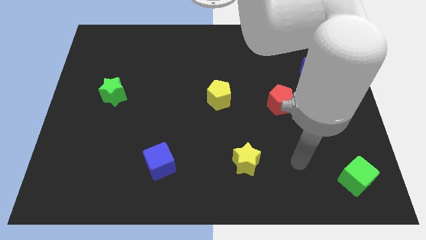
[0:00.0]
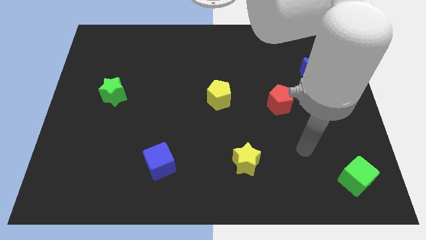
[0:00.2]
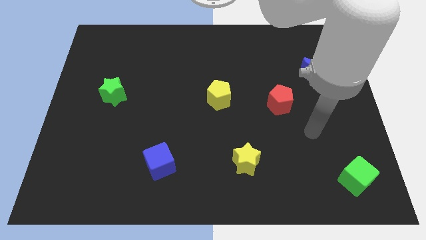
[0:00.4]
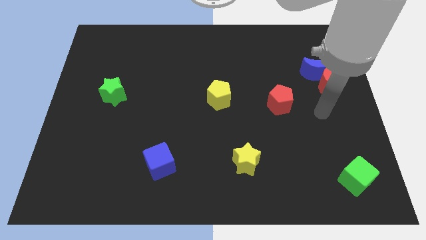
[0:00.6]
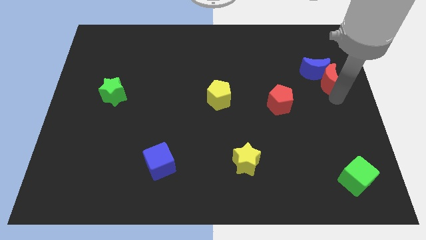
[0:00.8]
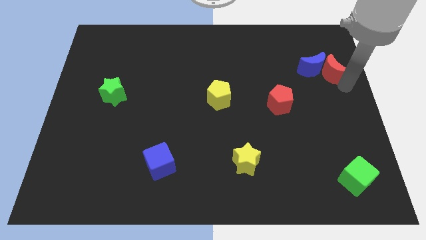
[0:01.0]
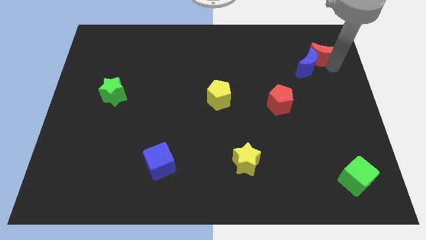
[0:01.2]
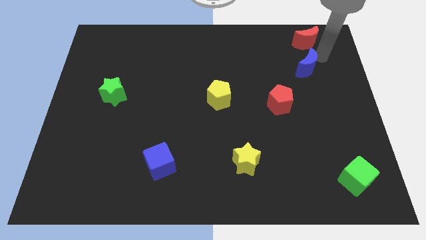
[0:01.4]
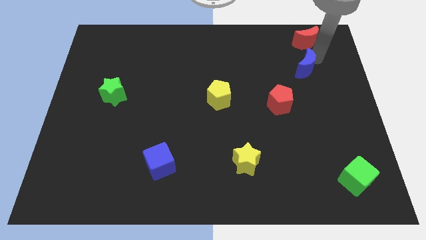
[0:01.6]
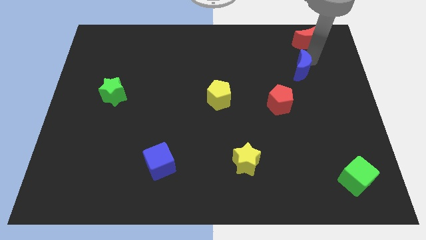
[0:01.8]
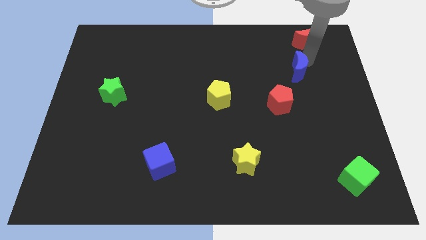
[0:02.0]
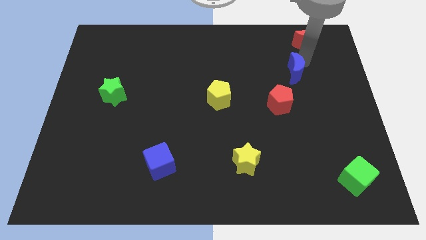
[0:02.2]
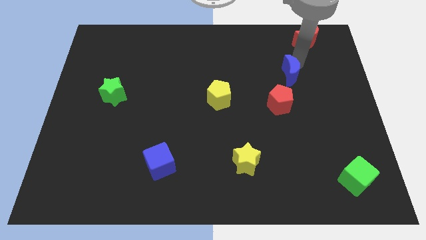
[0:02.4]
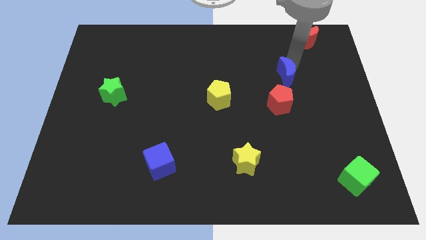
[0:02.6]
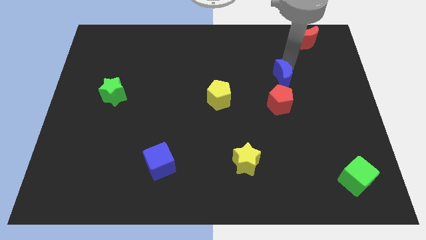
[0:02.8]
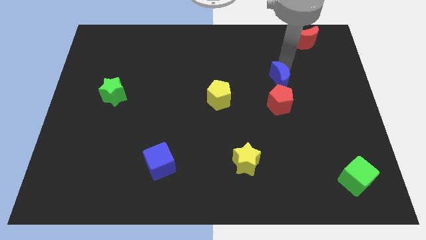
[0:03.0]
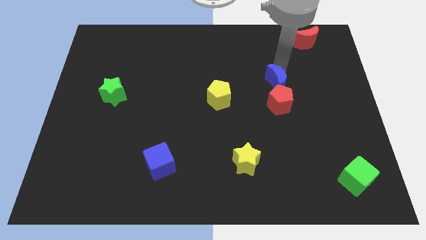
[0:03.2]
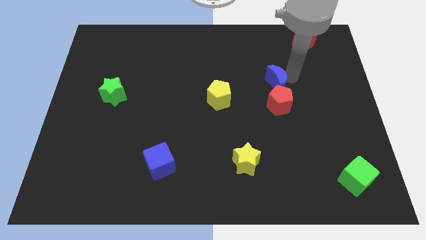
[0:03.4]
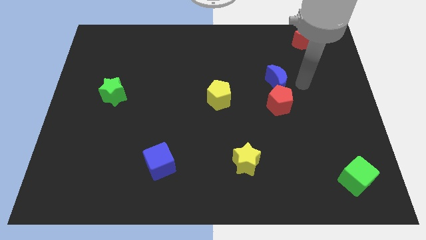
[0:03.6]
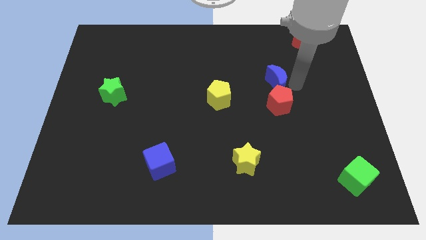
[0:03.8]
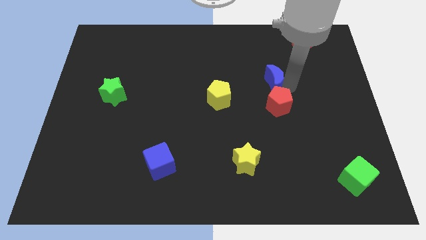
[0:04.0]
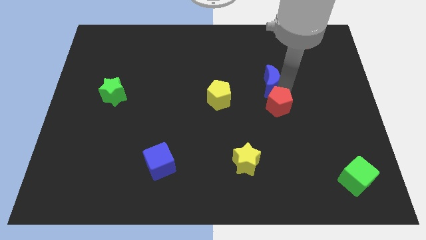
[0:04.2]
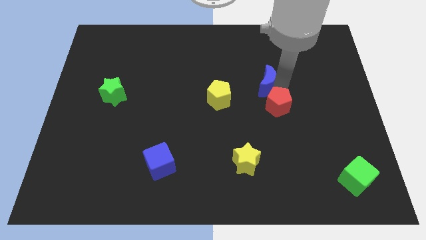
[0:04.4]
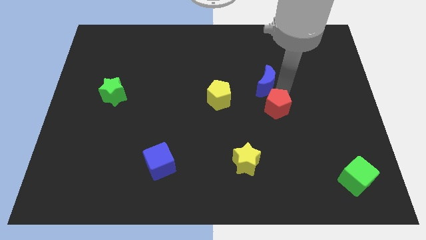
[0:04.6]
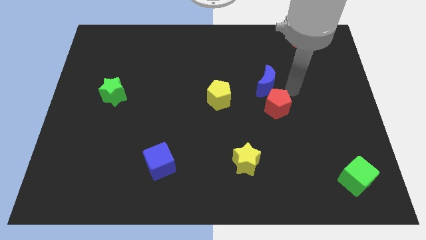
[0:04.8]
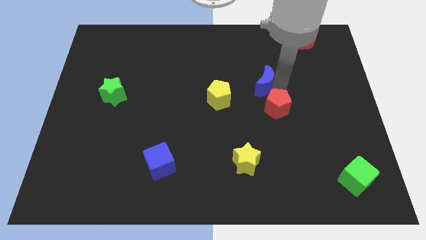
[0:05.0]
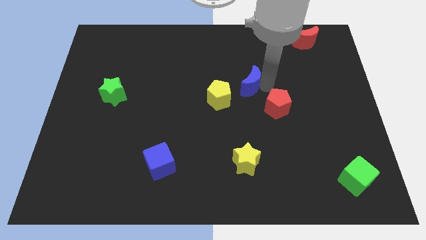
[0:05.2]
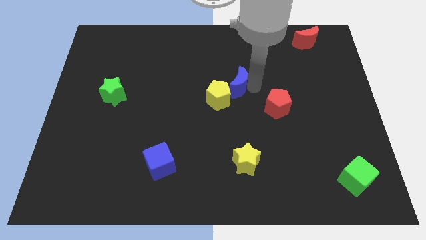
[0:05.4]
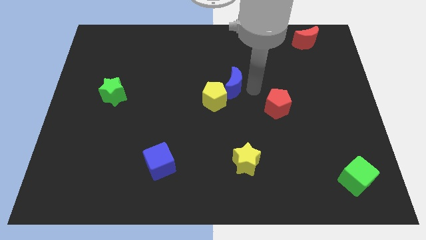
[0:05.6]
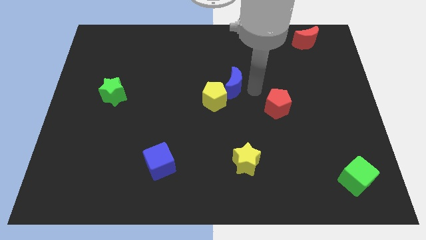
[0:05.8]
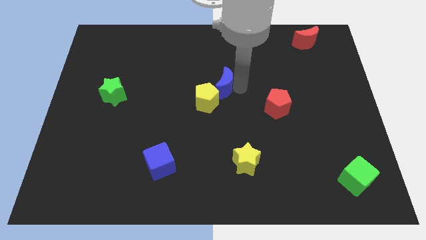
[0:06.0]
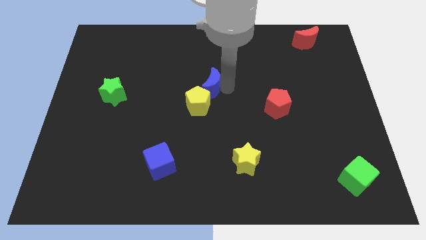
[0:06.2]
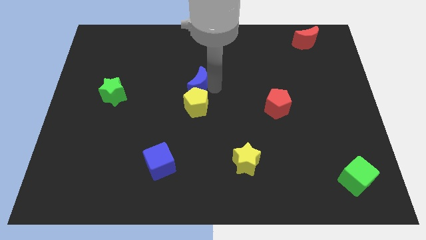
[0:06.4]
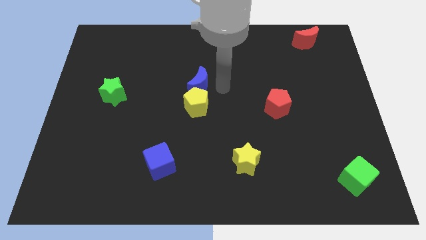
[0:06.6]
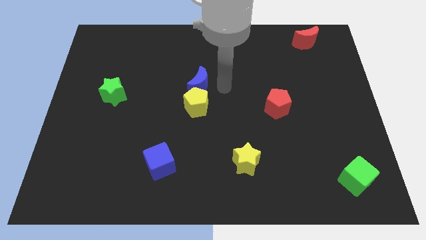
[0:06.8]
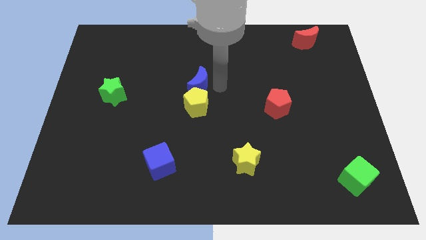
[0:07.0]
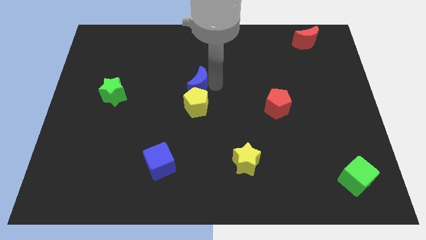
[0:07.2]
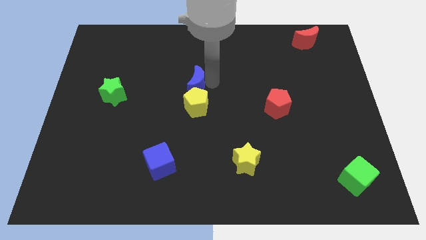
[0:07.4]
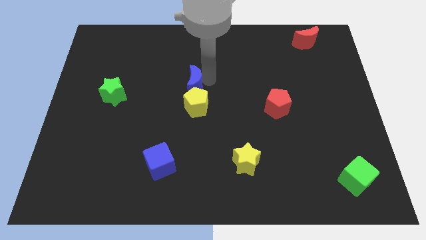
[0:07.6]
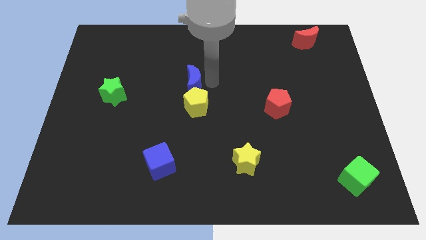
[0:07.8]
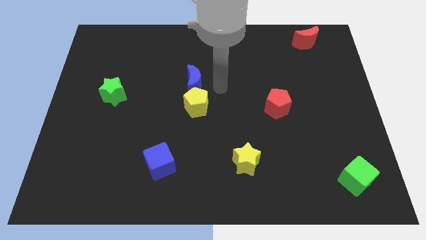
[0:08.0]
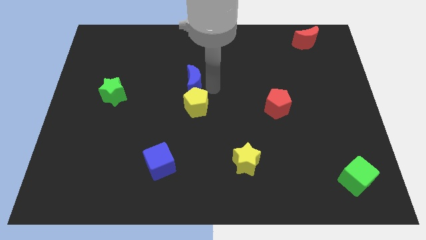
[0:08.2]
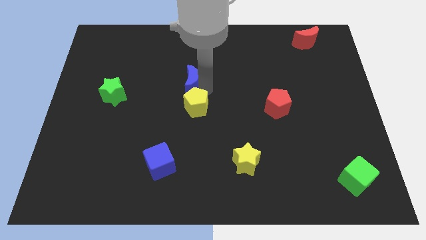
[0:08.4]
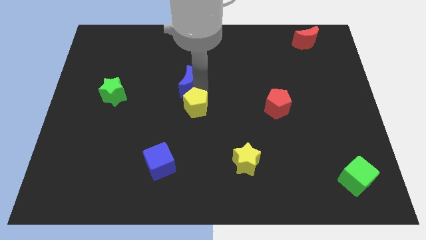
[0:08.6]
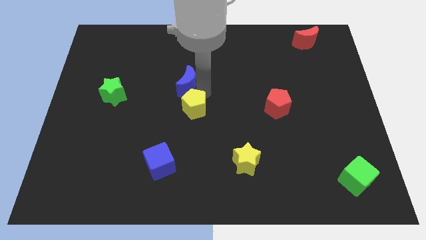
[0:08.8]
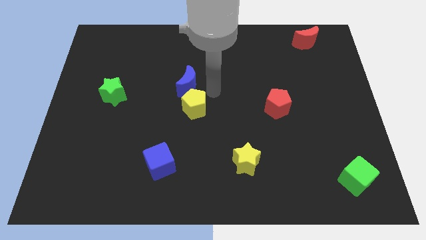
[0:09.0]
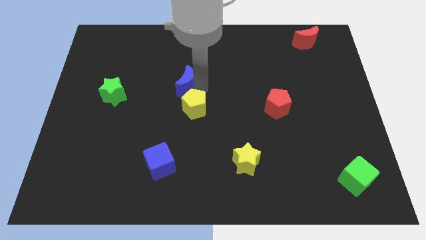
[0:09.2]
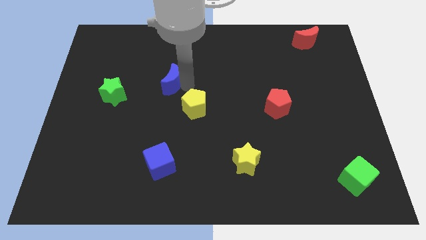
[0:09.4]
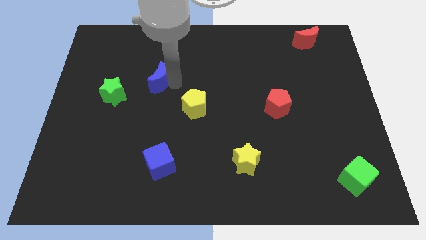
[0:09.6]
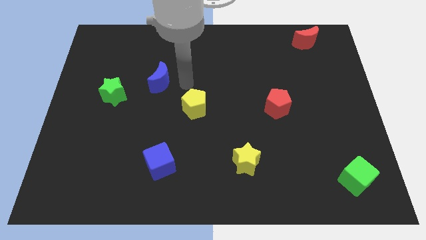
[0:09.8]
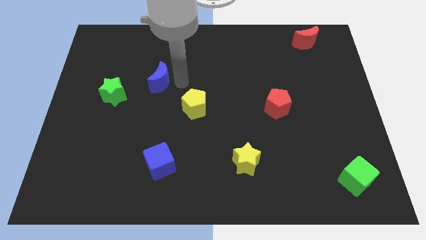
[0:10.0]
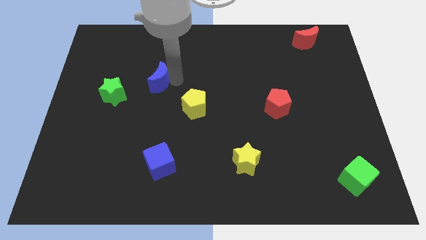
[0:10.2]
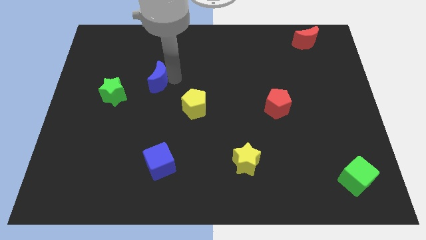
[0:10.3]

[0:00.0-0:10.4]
put the blue moon to the top right side of the green star

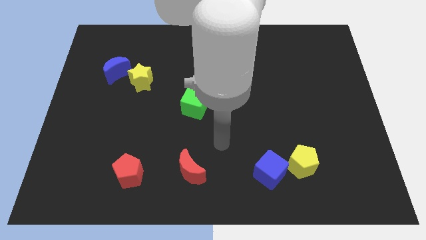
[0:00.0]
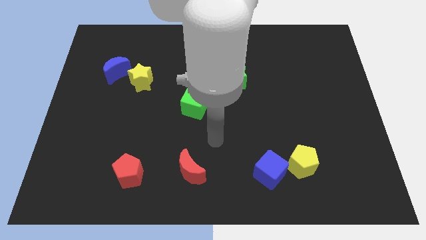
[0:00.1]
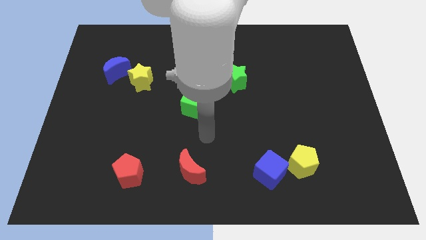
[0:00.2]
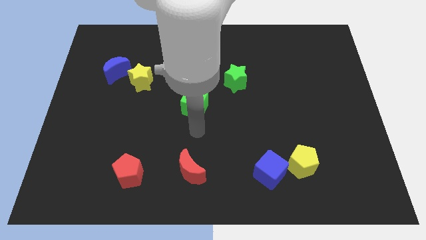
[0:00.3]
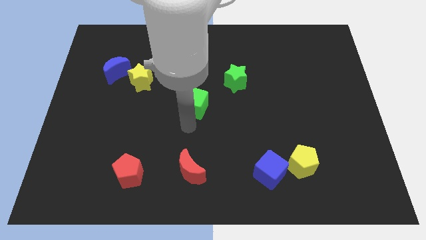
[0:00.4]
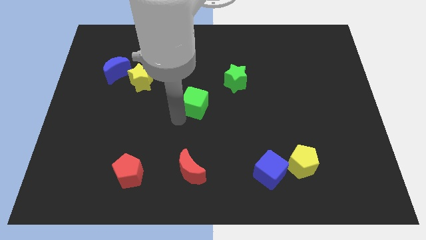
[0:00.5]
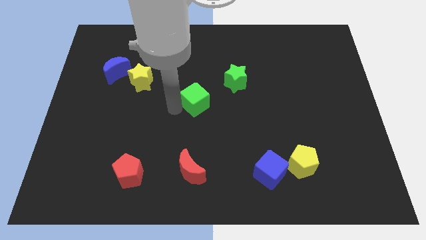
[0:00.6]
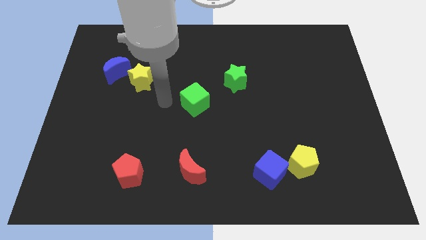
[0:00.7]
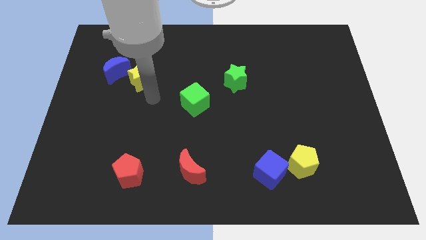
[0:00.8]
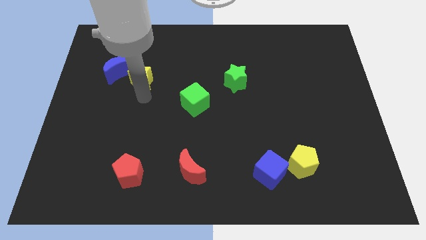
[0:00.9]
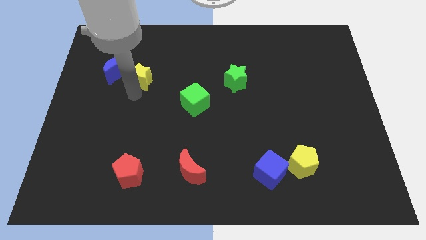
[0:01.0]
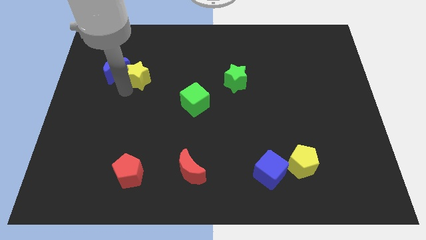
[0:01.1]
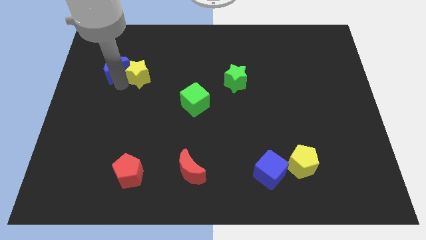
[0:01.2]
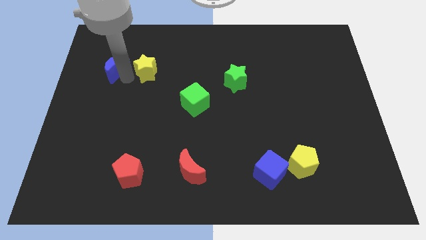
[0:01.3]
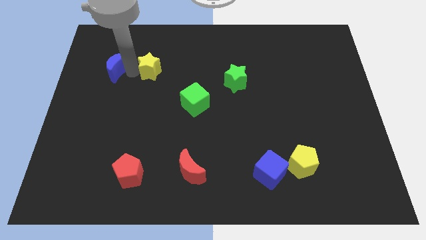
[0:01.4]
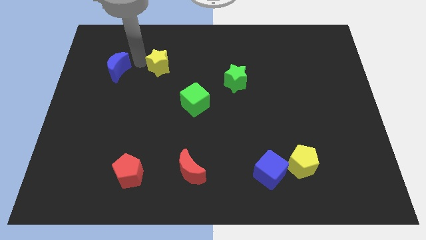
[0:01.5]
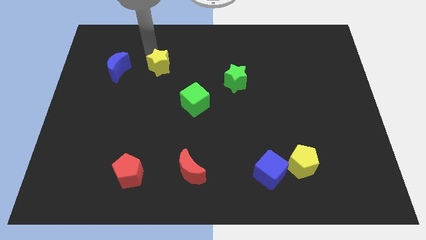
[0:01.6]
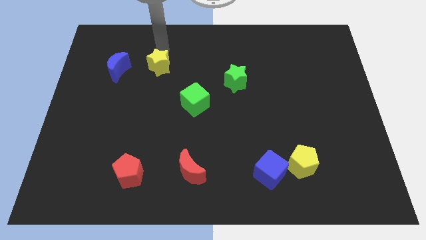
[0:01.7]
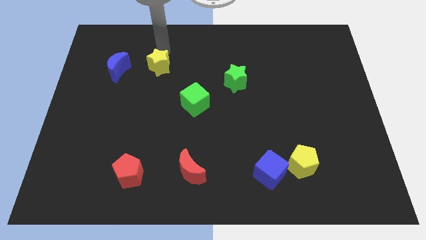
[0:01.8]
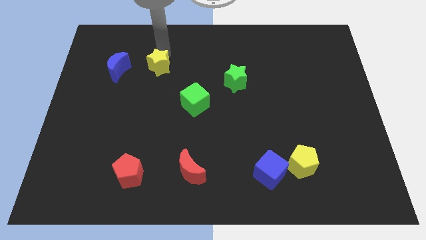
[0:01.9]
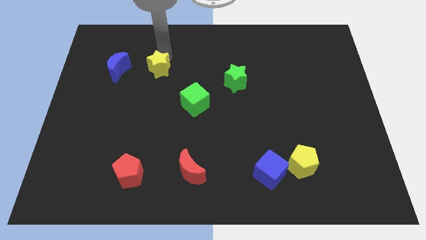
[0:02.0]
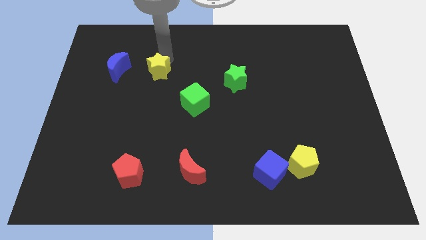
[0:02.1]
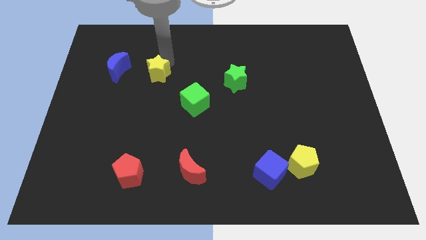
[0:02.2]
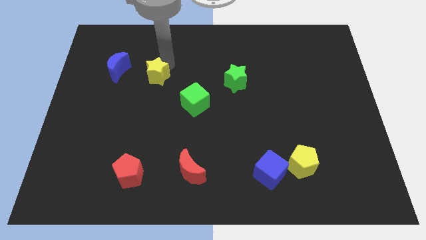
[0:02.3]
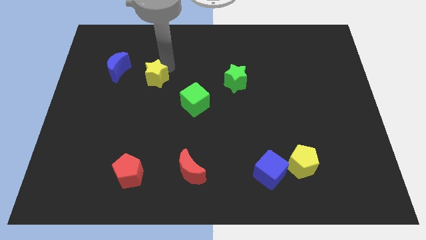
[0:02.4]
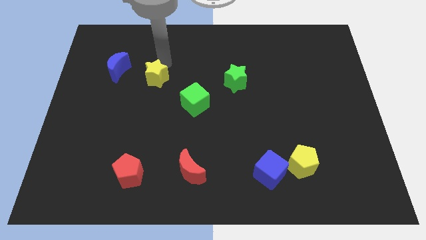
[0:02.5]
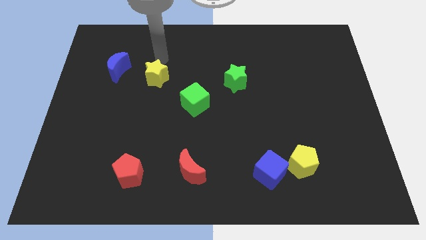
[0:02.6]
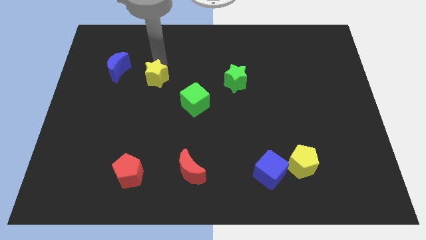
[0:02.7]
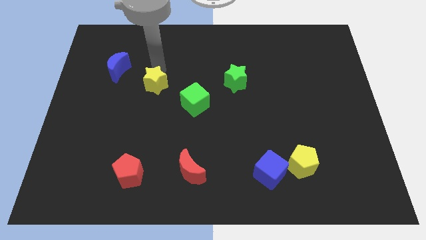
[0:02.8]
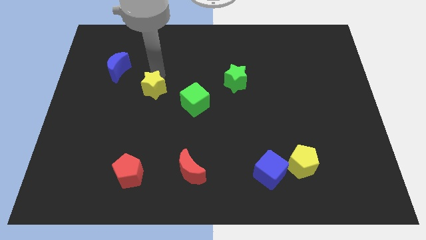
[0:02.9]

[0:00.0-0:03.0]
put the yellow star left of the green cube

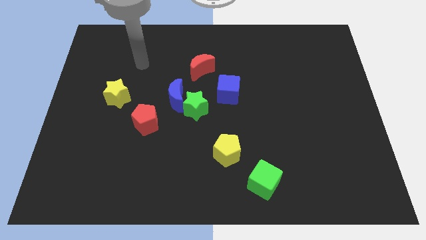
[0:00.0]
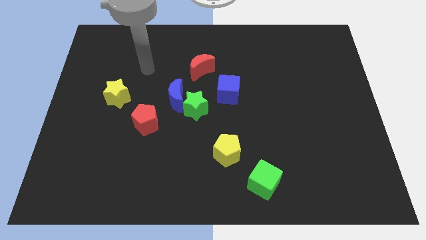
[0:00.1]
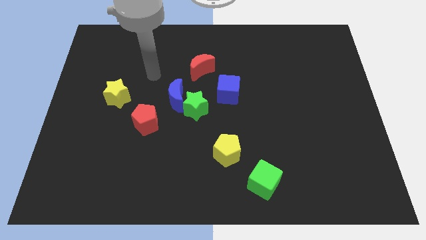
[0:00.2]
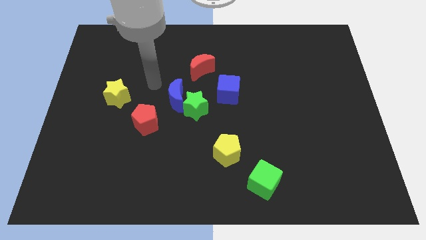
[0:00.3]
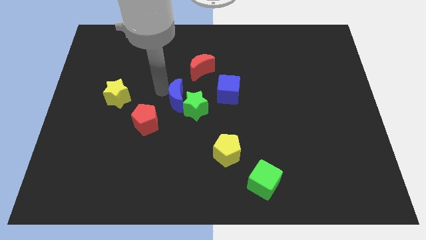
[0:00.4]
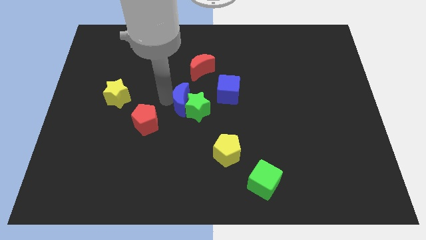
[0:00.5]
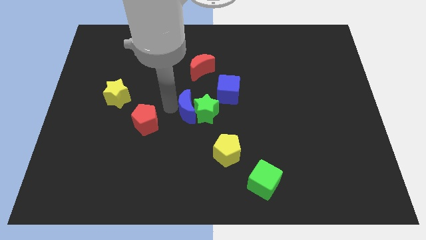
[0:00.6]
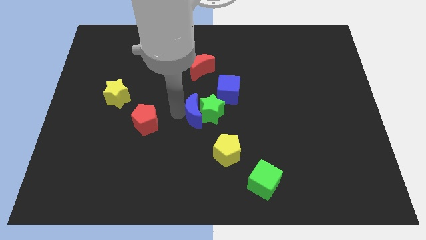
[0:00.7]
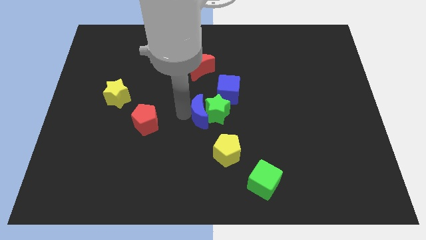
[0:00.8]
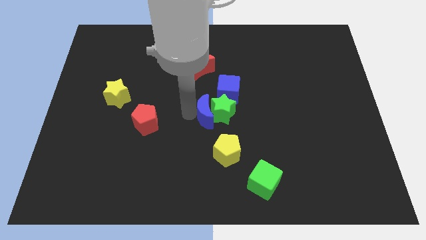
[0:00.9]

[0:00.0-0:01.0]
put the green star diagonally down and to the right of the blue cube
